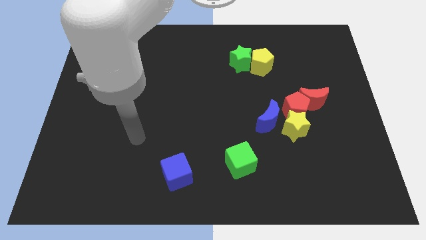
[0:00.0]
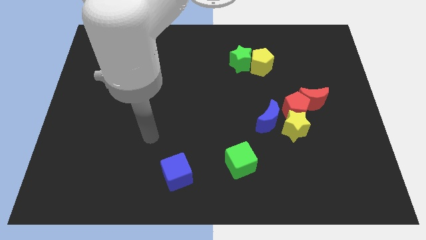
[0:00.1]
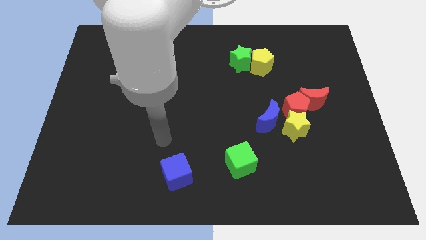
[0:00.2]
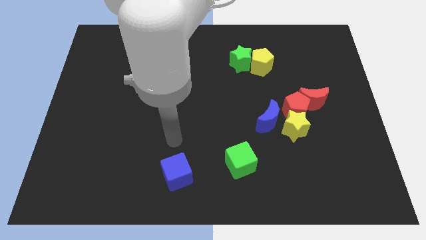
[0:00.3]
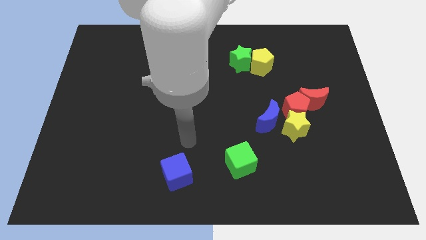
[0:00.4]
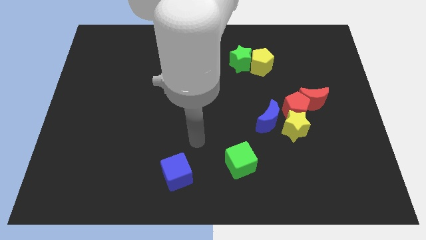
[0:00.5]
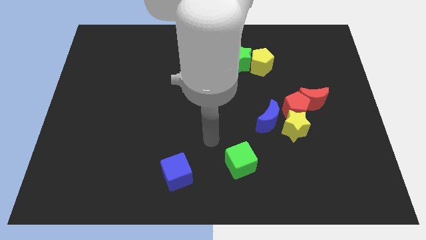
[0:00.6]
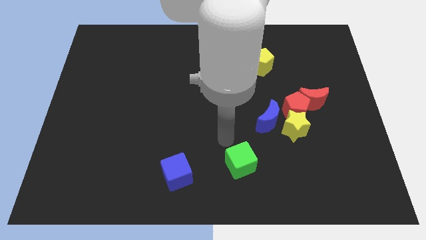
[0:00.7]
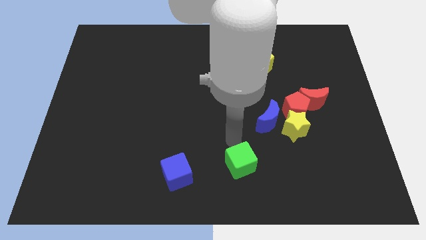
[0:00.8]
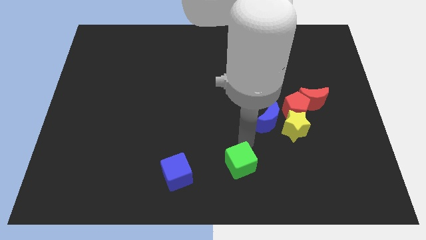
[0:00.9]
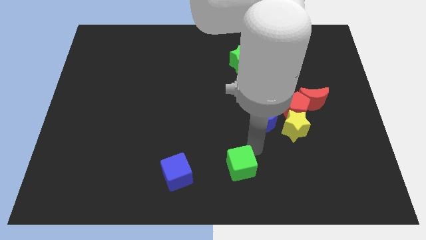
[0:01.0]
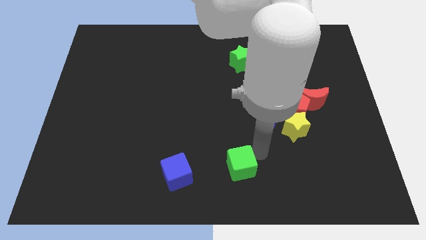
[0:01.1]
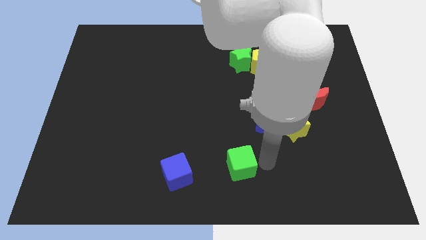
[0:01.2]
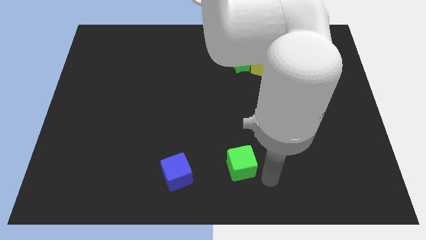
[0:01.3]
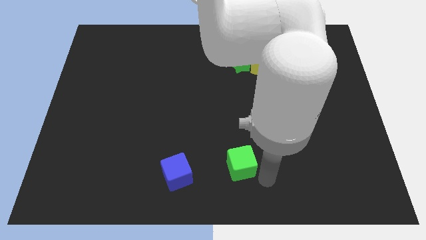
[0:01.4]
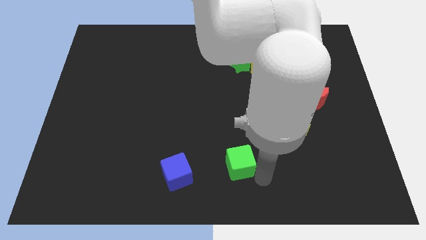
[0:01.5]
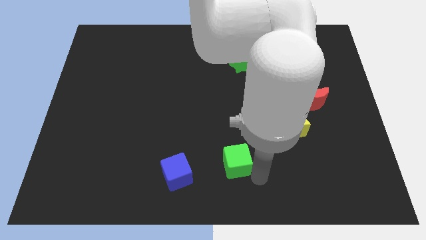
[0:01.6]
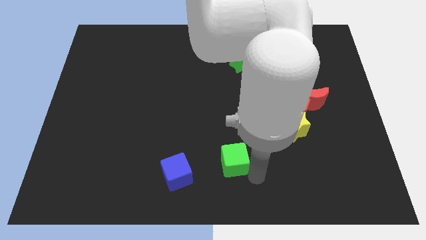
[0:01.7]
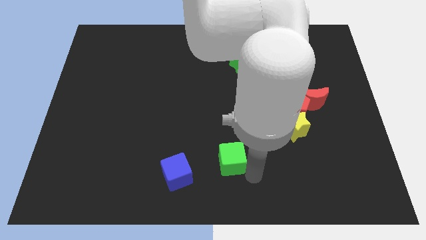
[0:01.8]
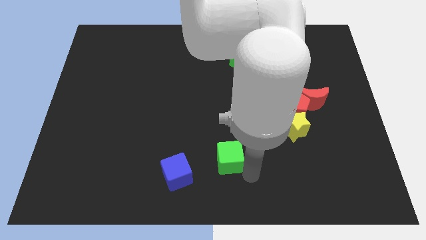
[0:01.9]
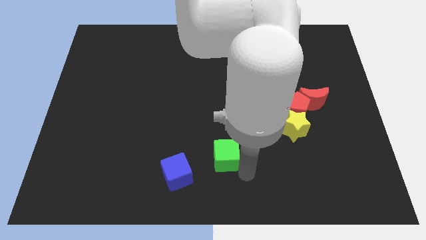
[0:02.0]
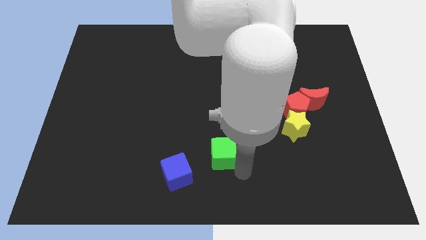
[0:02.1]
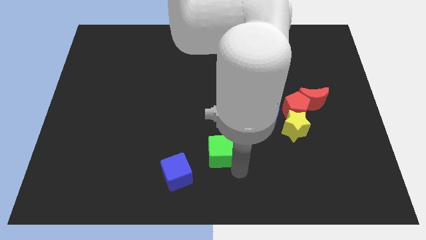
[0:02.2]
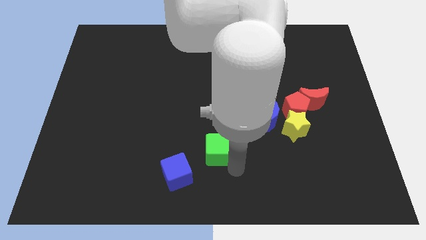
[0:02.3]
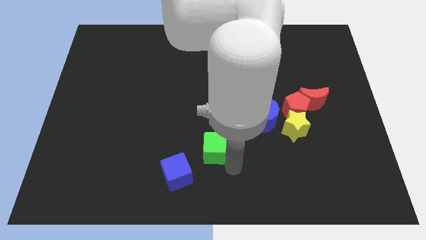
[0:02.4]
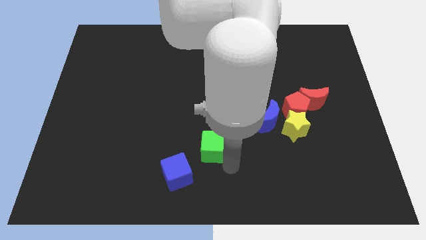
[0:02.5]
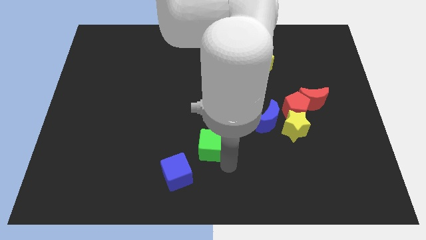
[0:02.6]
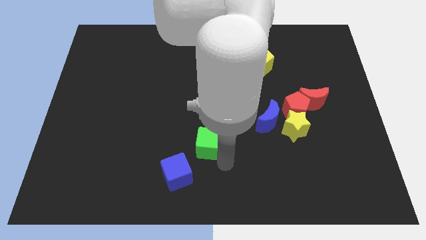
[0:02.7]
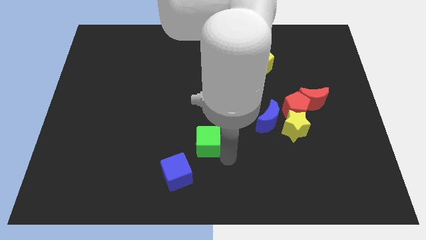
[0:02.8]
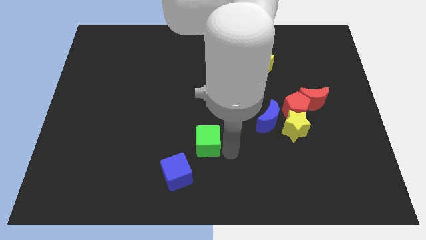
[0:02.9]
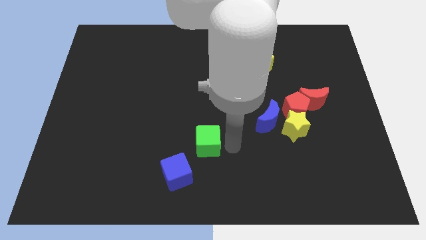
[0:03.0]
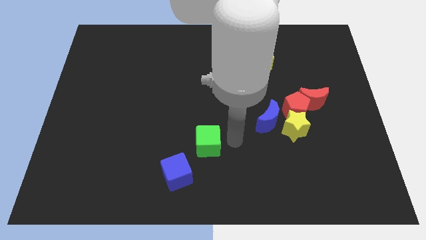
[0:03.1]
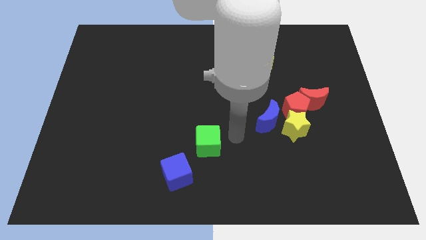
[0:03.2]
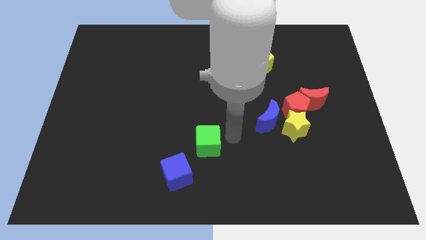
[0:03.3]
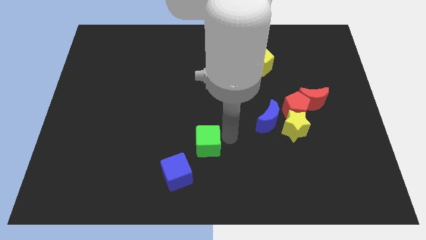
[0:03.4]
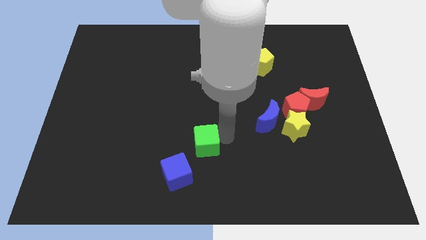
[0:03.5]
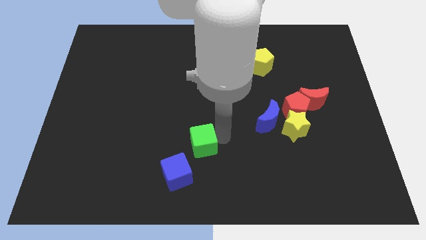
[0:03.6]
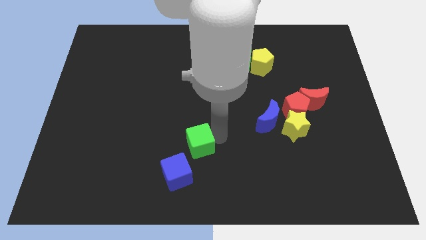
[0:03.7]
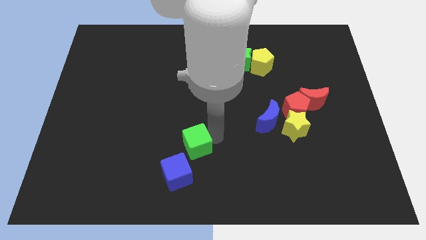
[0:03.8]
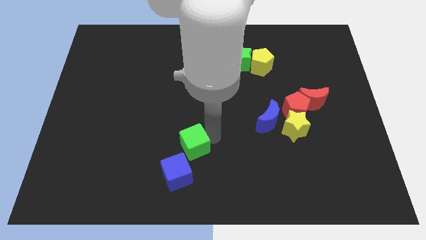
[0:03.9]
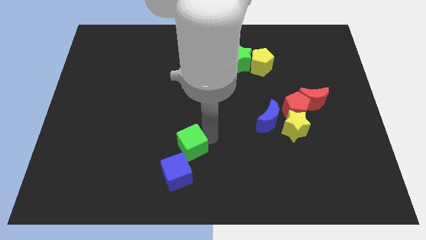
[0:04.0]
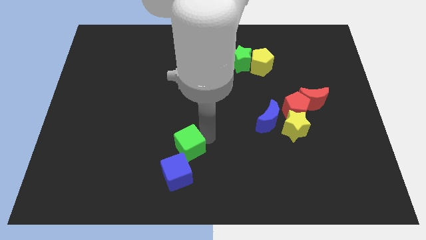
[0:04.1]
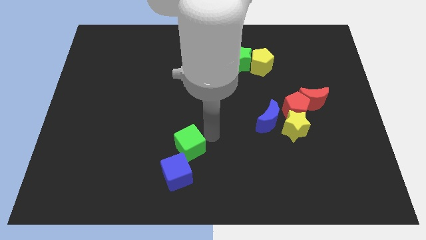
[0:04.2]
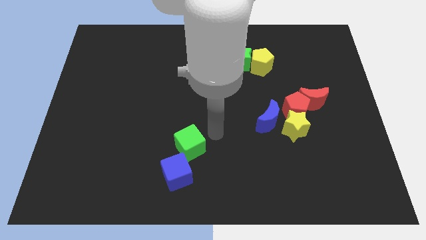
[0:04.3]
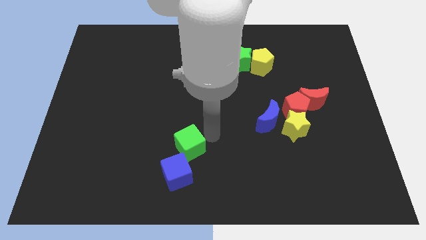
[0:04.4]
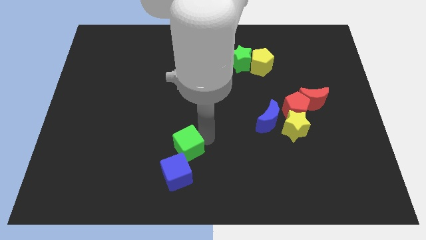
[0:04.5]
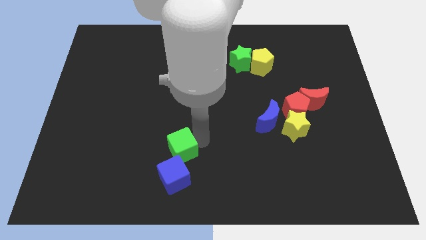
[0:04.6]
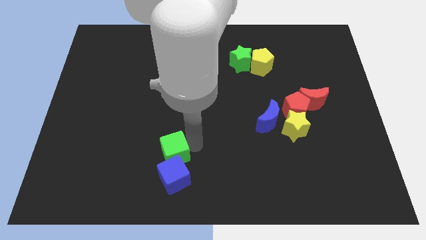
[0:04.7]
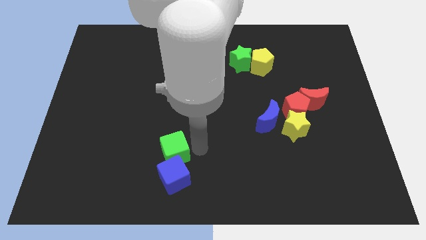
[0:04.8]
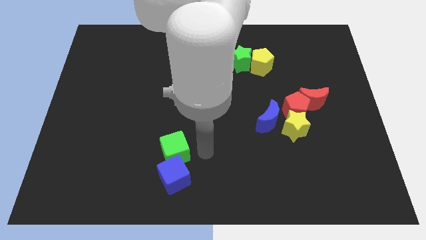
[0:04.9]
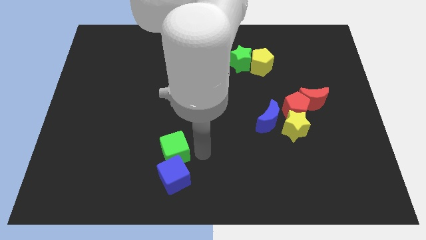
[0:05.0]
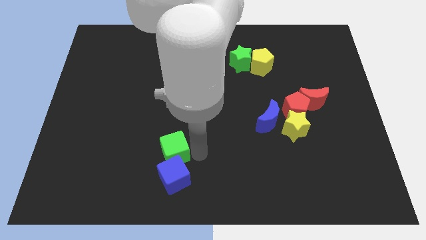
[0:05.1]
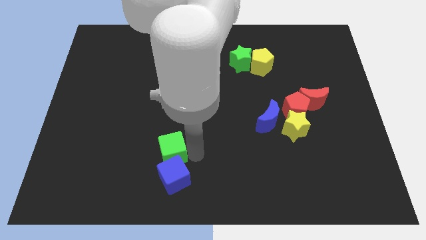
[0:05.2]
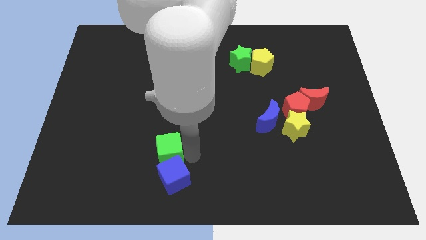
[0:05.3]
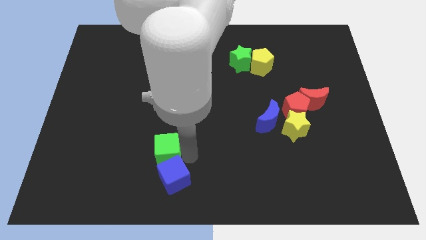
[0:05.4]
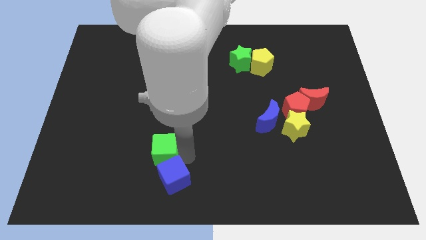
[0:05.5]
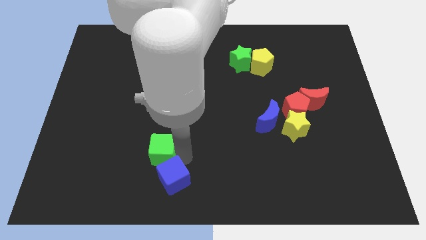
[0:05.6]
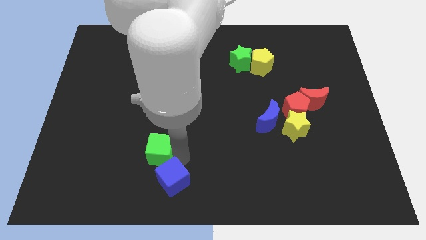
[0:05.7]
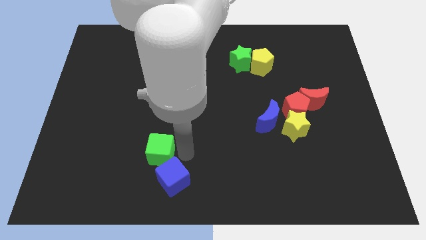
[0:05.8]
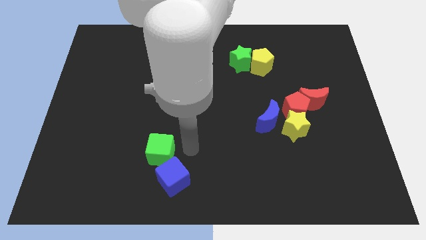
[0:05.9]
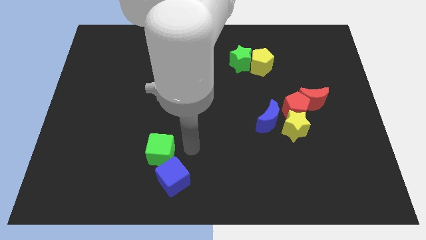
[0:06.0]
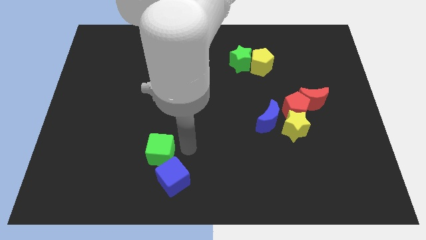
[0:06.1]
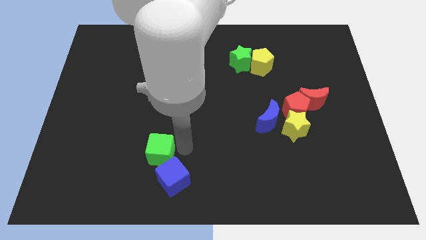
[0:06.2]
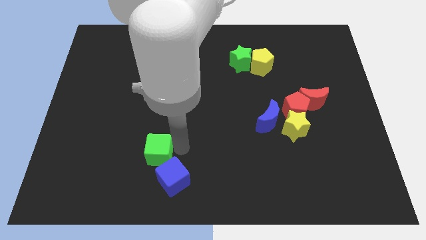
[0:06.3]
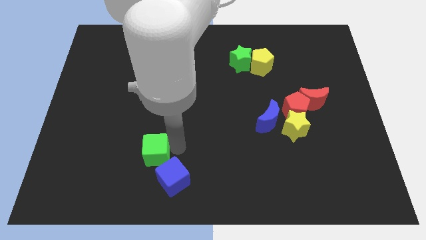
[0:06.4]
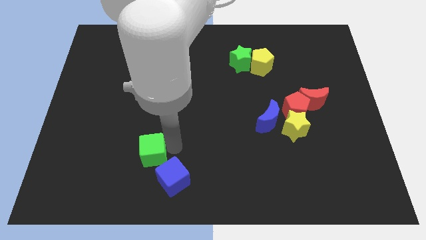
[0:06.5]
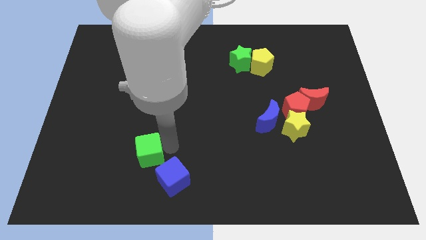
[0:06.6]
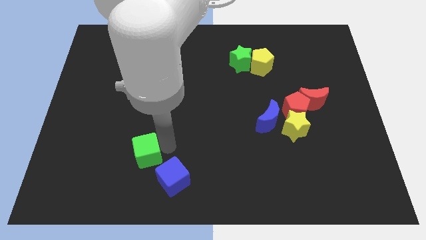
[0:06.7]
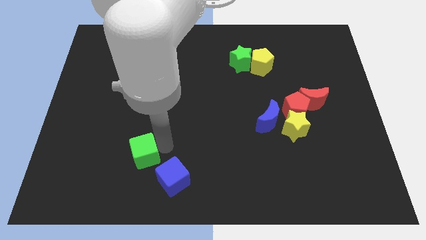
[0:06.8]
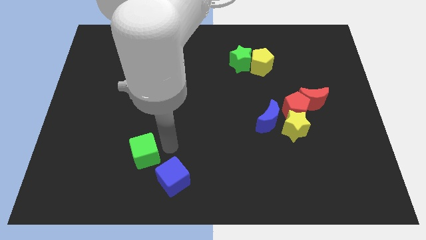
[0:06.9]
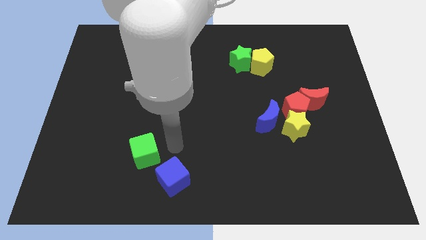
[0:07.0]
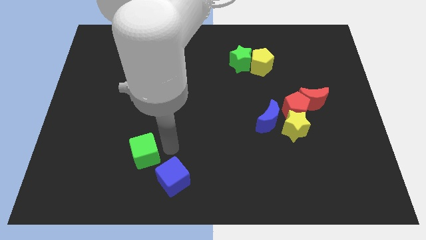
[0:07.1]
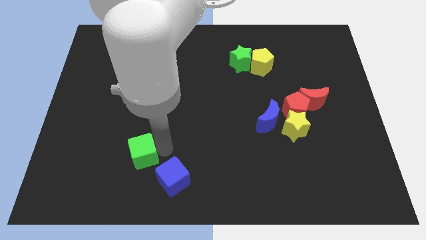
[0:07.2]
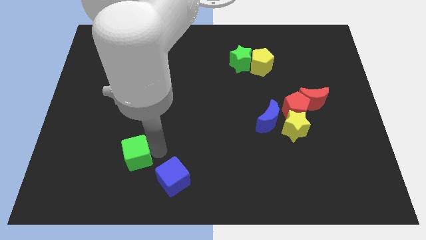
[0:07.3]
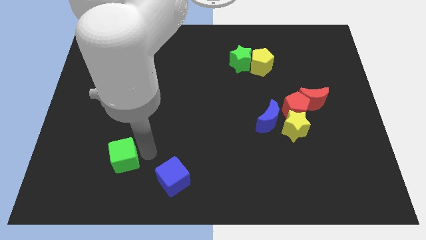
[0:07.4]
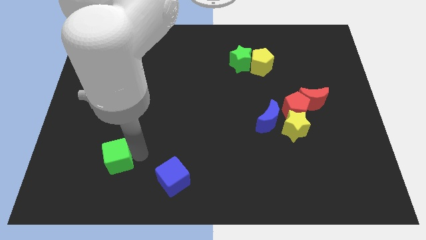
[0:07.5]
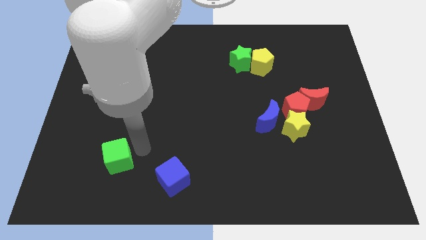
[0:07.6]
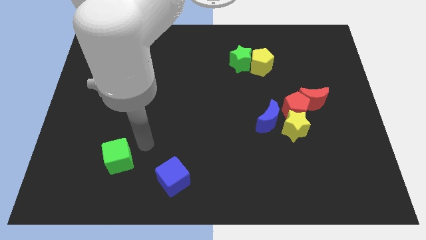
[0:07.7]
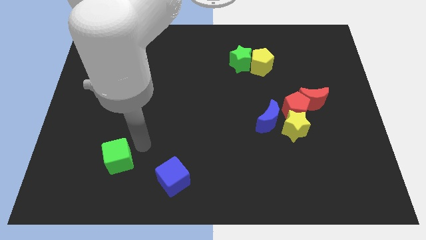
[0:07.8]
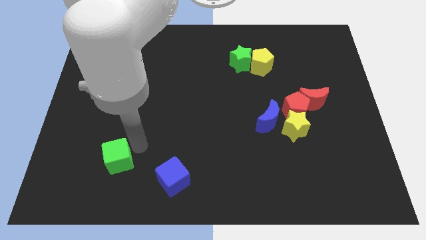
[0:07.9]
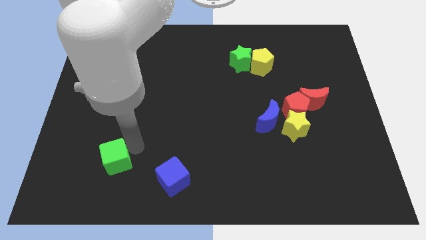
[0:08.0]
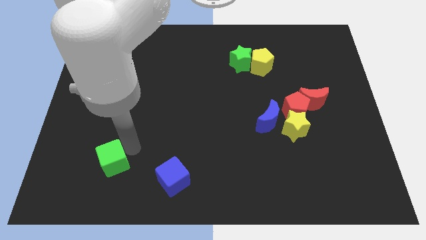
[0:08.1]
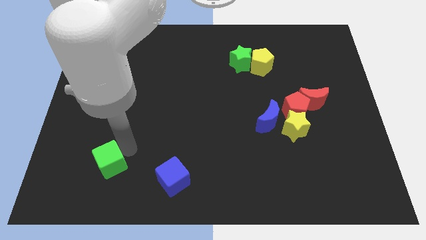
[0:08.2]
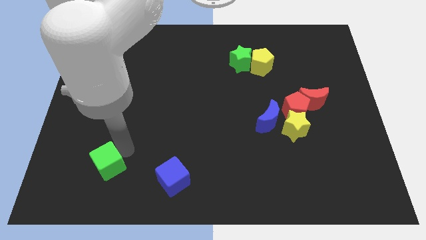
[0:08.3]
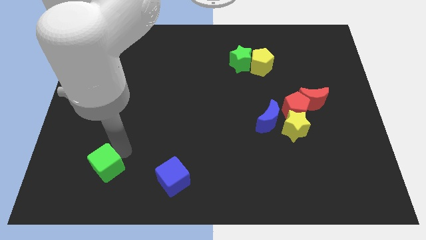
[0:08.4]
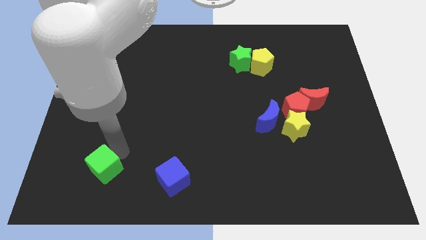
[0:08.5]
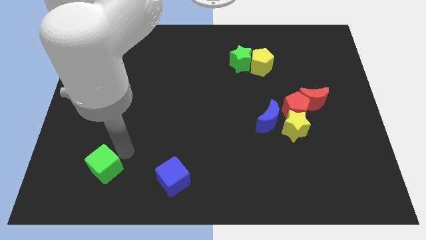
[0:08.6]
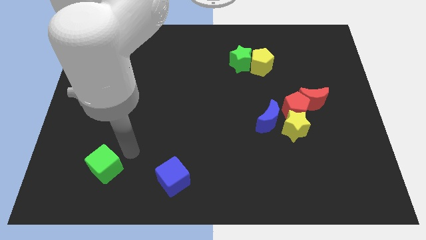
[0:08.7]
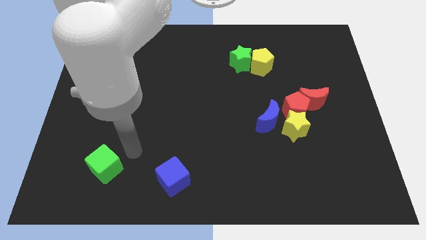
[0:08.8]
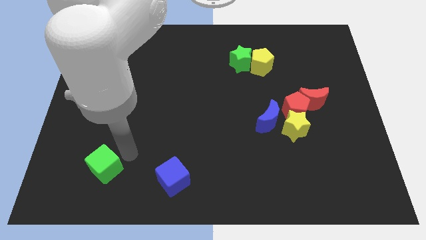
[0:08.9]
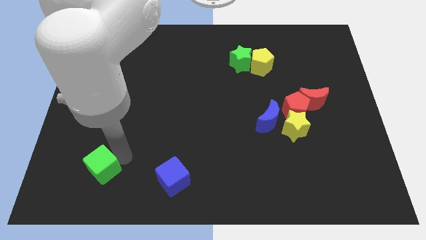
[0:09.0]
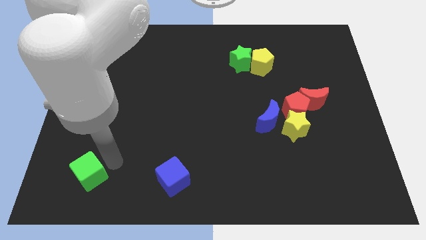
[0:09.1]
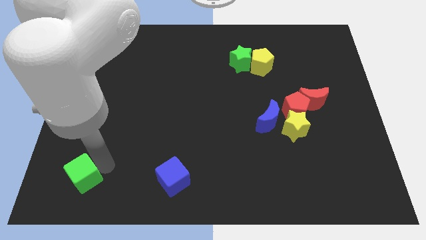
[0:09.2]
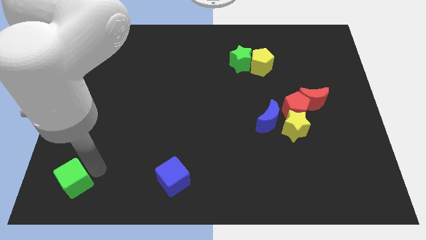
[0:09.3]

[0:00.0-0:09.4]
push the green cube to the bottom left
